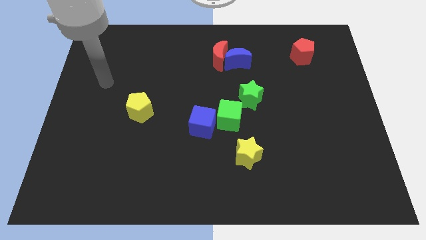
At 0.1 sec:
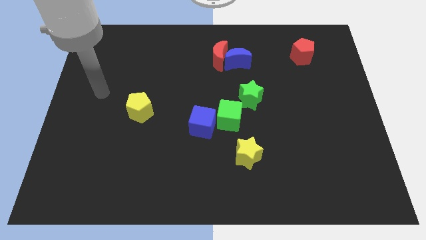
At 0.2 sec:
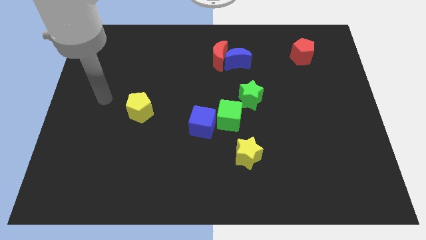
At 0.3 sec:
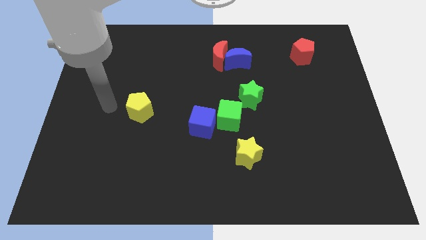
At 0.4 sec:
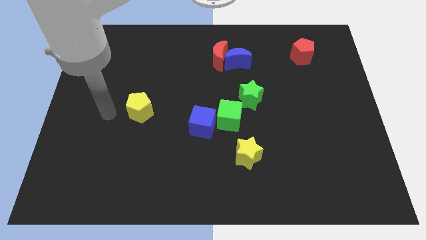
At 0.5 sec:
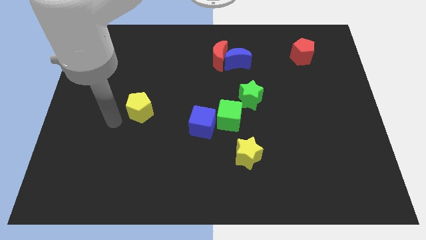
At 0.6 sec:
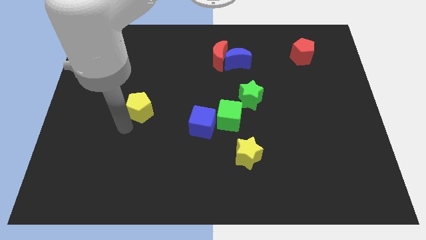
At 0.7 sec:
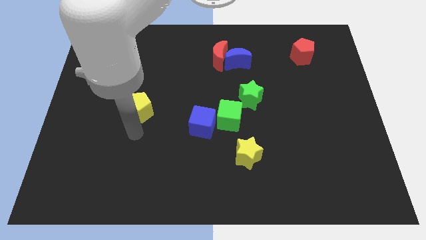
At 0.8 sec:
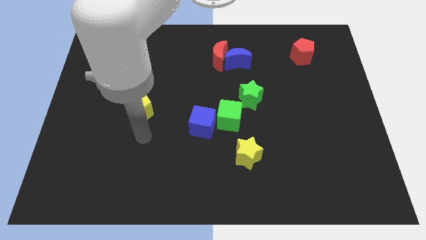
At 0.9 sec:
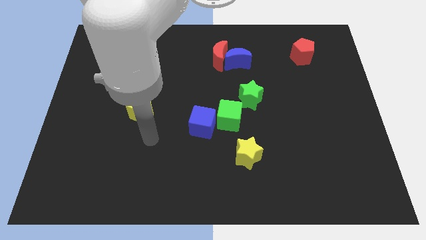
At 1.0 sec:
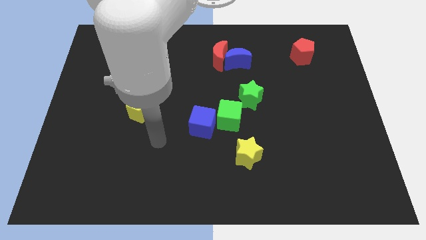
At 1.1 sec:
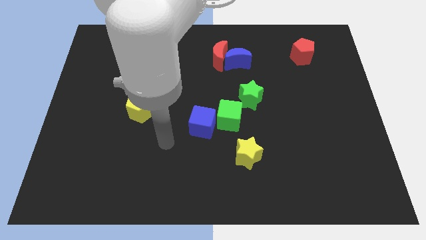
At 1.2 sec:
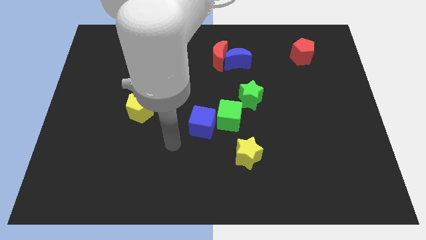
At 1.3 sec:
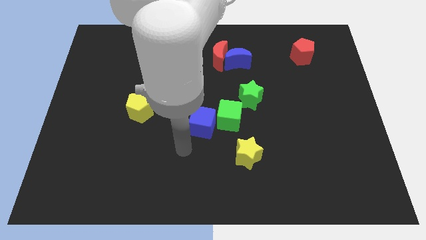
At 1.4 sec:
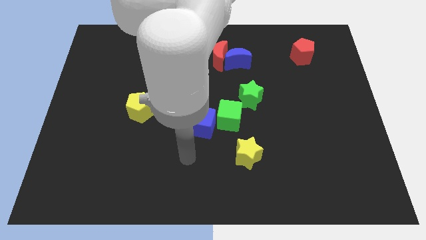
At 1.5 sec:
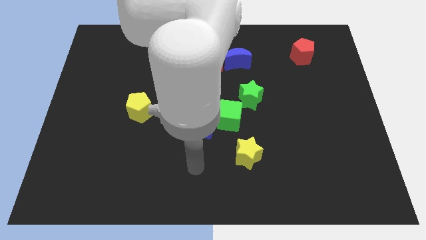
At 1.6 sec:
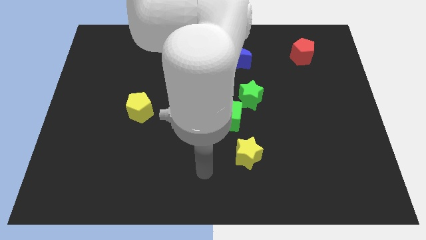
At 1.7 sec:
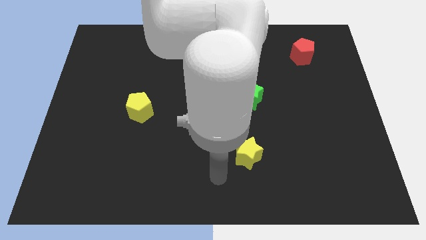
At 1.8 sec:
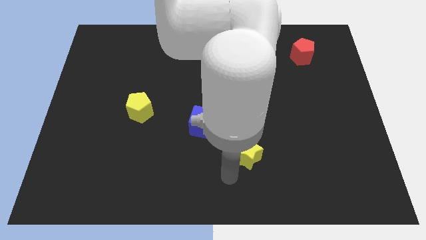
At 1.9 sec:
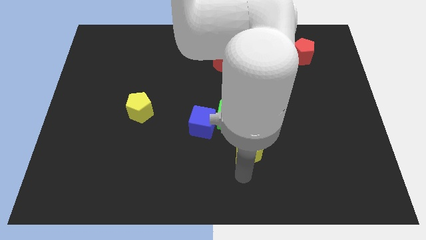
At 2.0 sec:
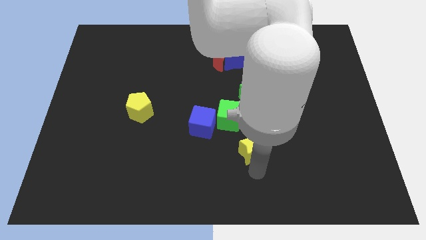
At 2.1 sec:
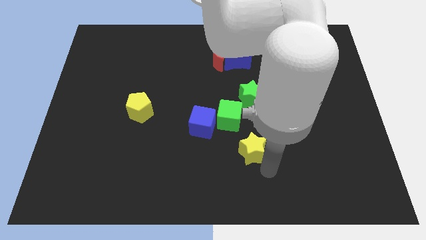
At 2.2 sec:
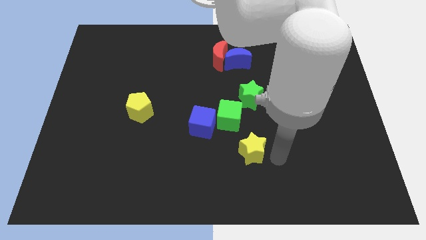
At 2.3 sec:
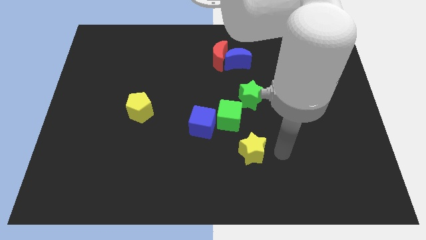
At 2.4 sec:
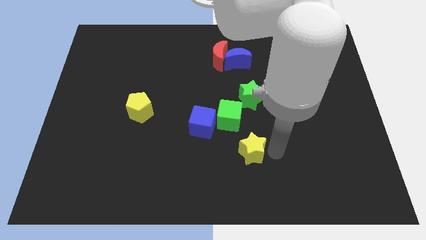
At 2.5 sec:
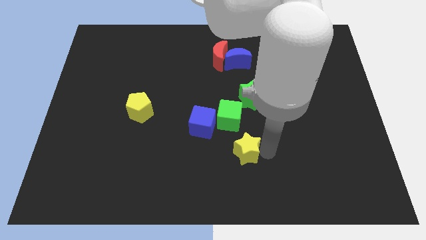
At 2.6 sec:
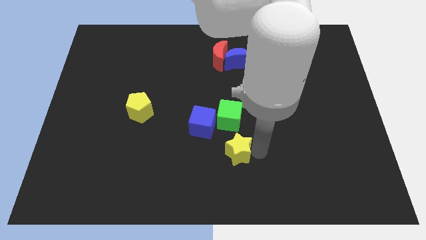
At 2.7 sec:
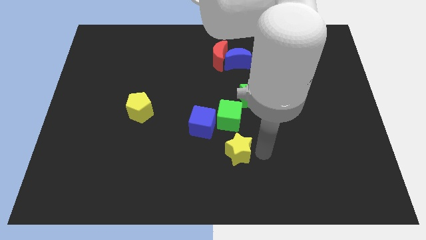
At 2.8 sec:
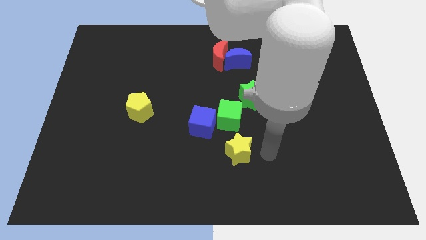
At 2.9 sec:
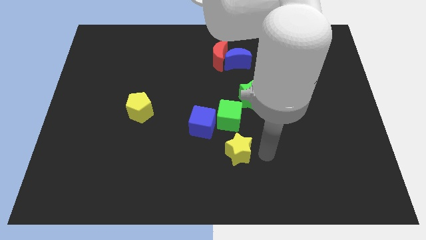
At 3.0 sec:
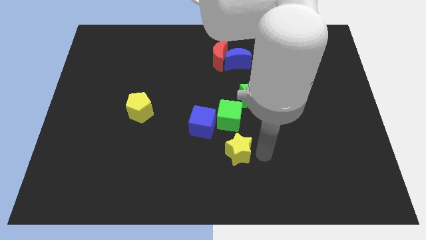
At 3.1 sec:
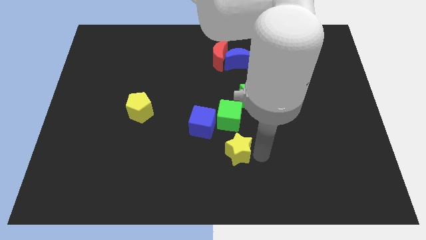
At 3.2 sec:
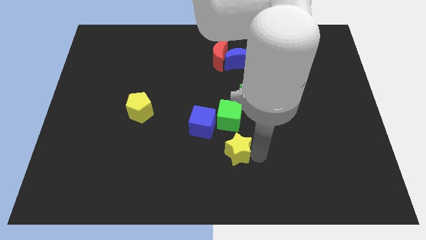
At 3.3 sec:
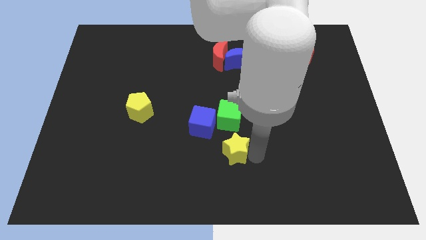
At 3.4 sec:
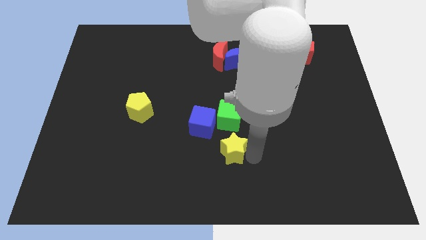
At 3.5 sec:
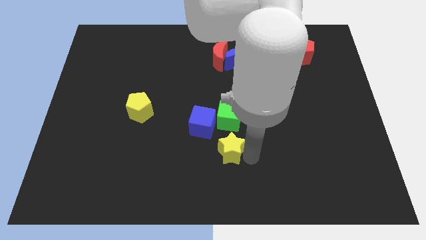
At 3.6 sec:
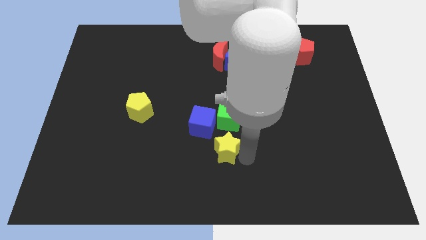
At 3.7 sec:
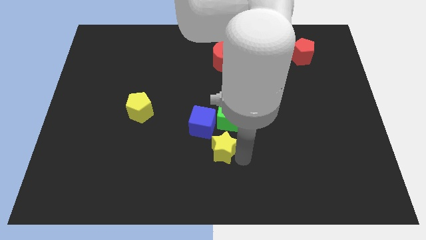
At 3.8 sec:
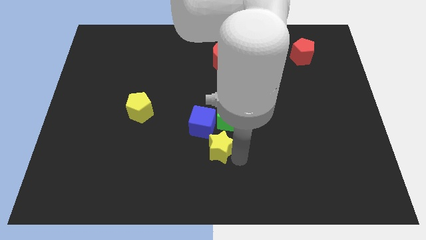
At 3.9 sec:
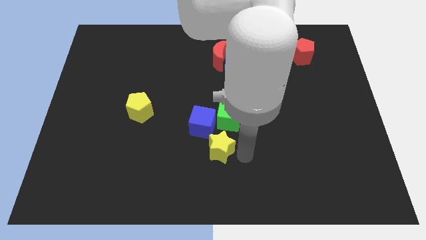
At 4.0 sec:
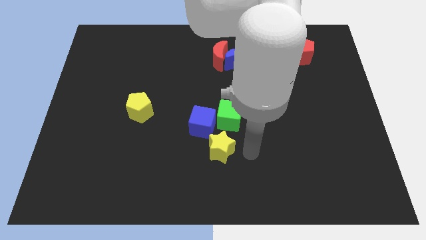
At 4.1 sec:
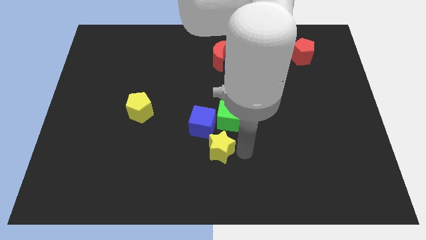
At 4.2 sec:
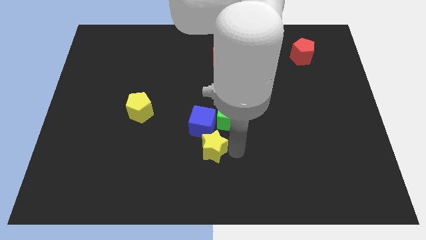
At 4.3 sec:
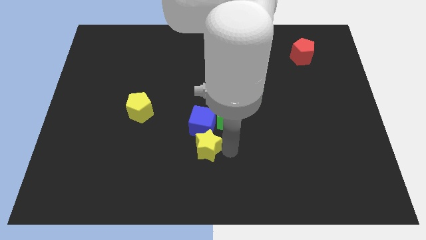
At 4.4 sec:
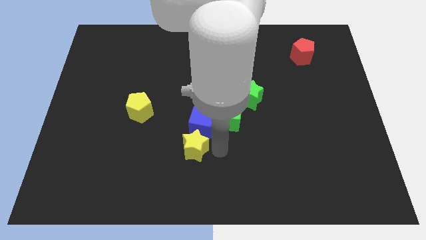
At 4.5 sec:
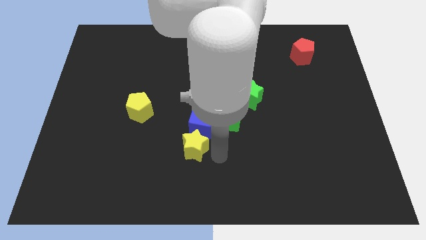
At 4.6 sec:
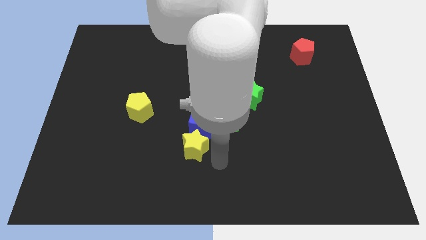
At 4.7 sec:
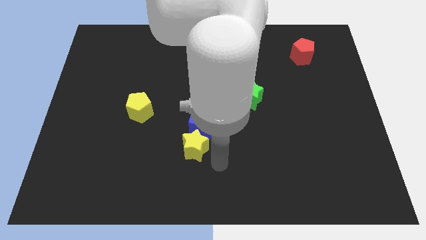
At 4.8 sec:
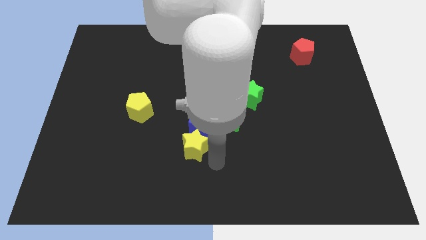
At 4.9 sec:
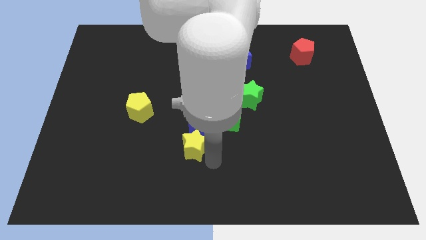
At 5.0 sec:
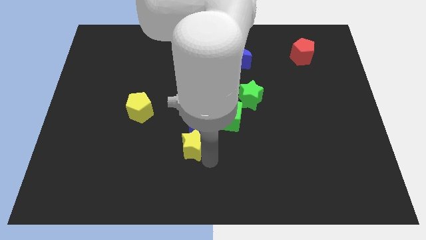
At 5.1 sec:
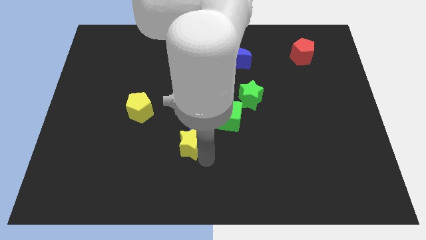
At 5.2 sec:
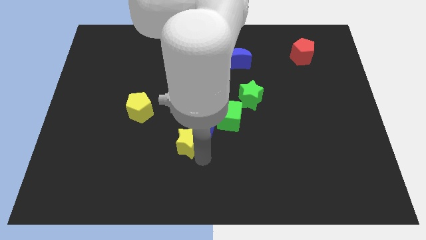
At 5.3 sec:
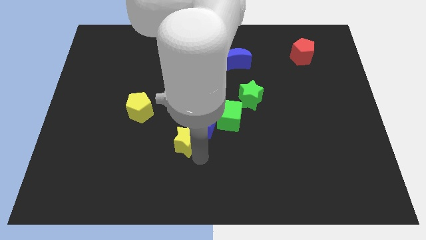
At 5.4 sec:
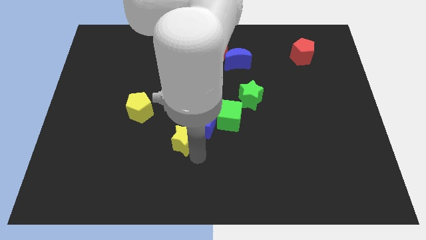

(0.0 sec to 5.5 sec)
move the yellow star to the left of the blue cube

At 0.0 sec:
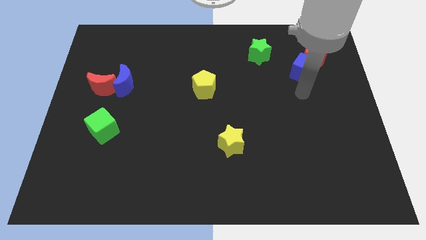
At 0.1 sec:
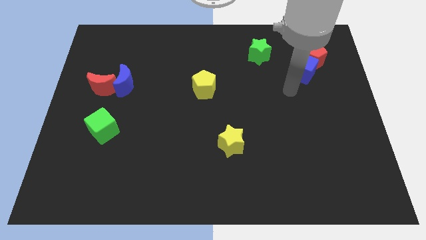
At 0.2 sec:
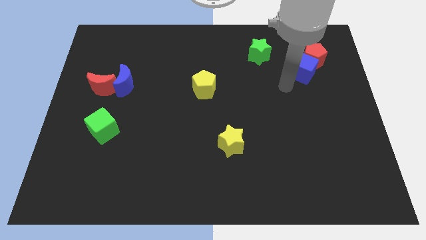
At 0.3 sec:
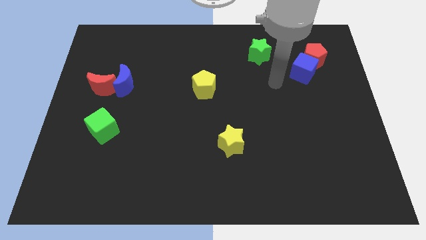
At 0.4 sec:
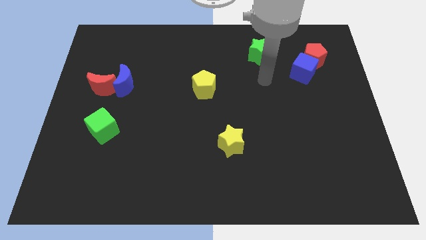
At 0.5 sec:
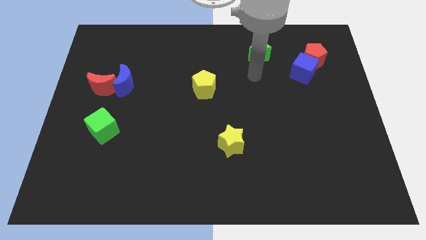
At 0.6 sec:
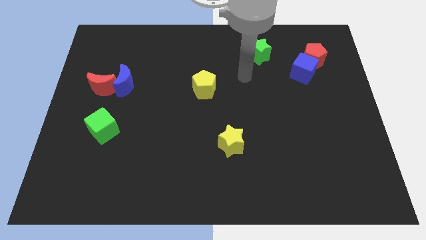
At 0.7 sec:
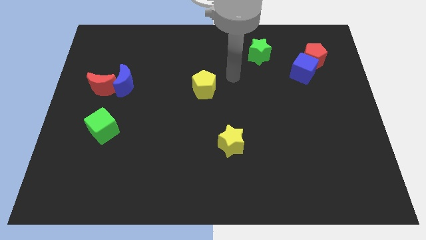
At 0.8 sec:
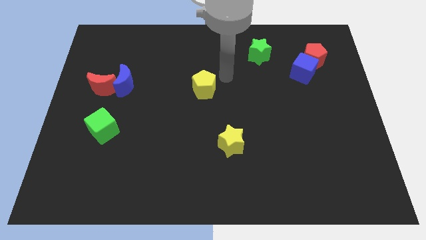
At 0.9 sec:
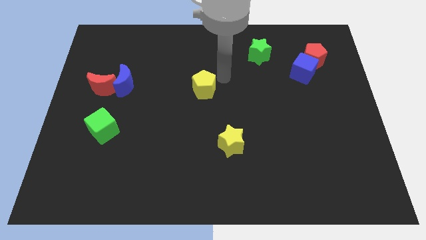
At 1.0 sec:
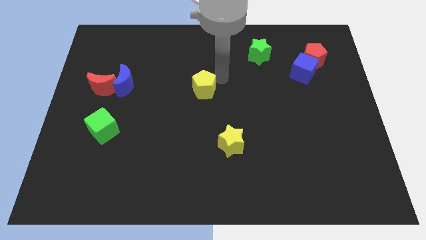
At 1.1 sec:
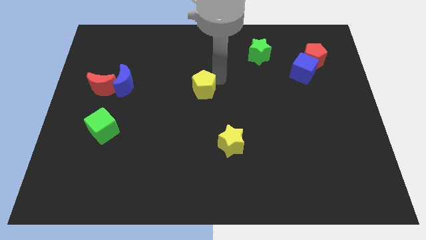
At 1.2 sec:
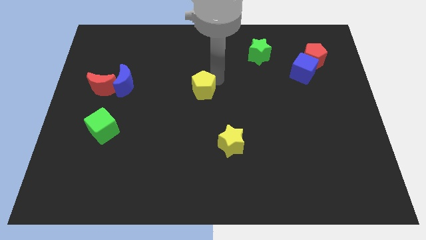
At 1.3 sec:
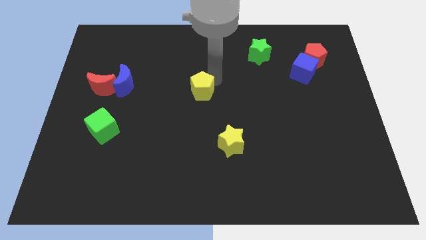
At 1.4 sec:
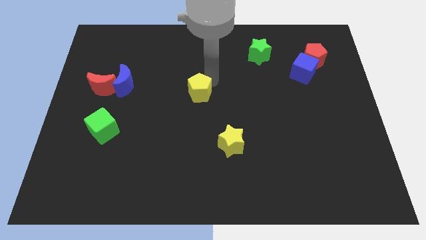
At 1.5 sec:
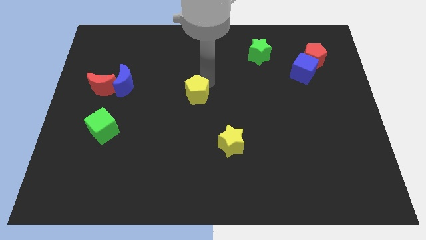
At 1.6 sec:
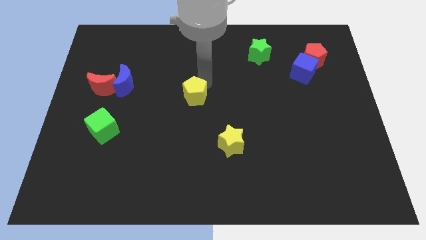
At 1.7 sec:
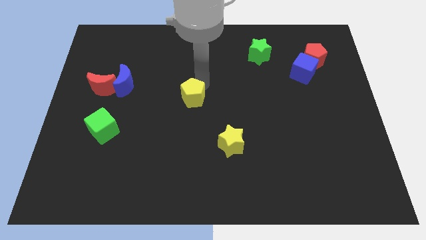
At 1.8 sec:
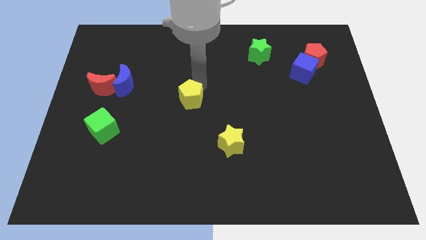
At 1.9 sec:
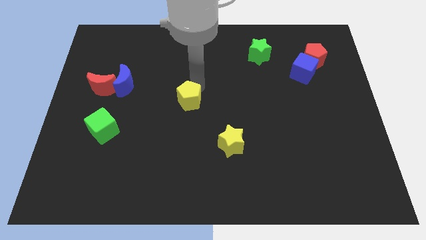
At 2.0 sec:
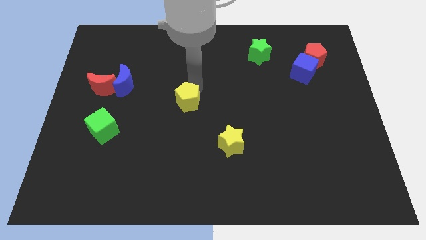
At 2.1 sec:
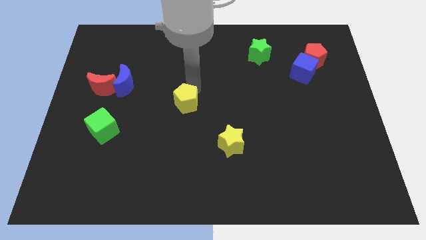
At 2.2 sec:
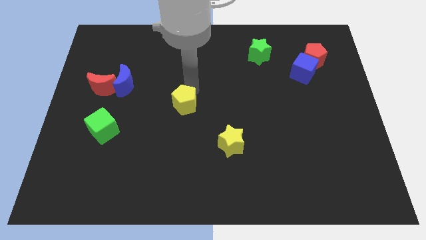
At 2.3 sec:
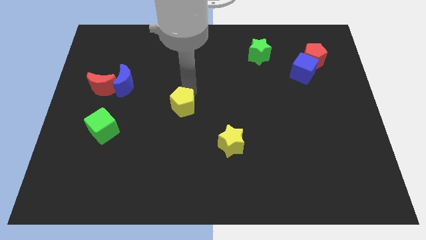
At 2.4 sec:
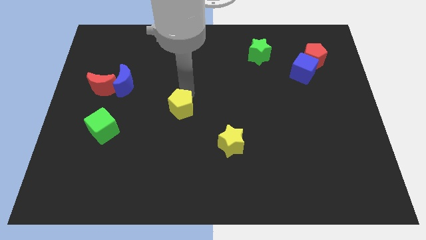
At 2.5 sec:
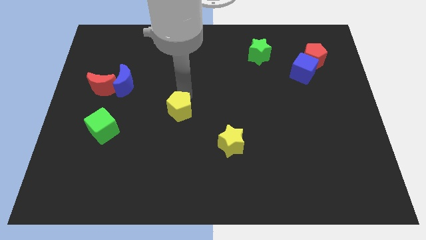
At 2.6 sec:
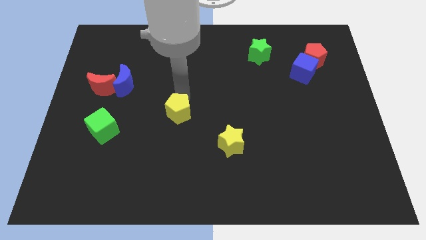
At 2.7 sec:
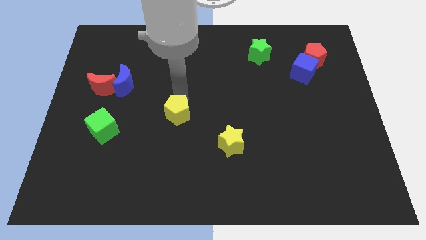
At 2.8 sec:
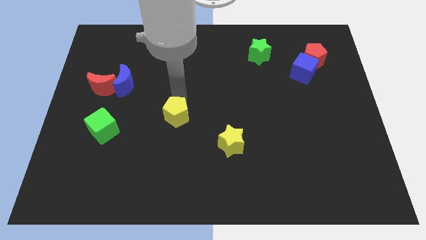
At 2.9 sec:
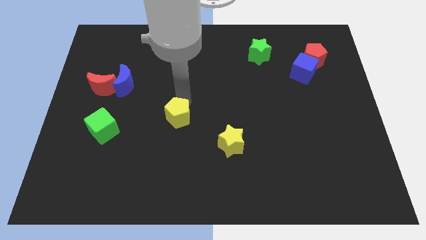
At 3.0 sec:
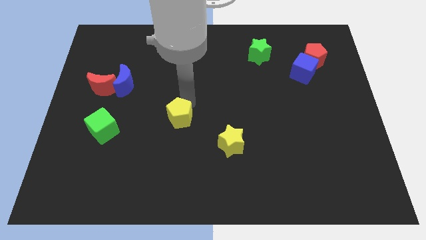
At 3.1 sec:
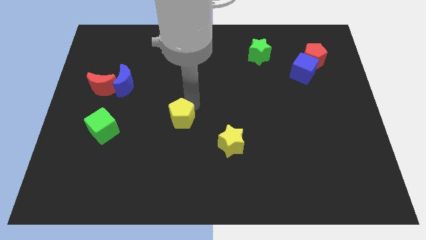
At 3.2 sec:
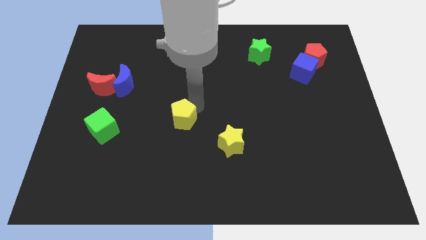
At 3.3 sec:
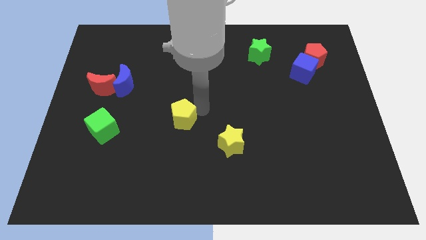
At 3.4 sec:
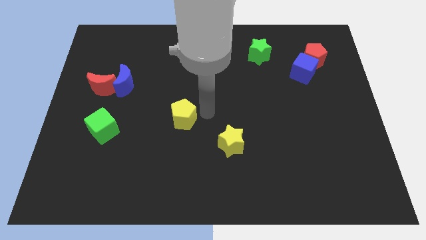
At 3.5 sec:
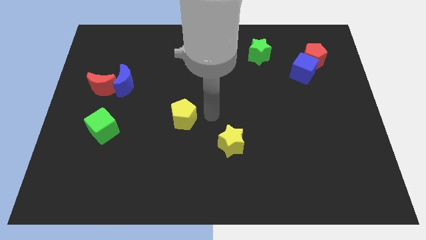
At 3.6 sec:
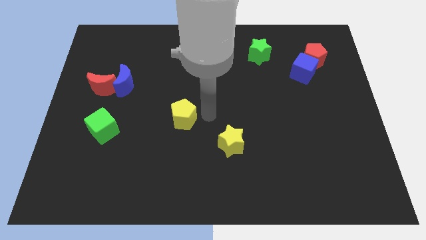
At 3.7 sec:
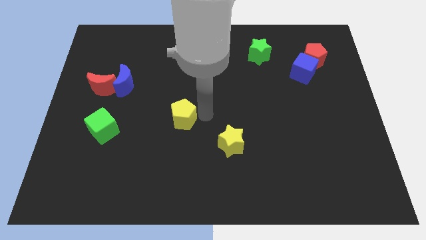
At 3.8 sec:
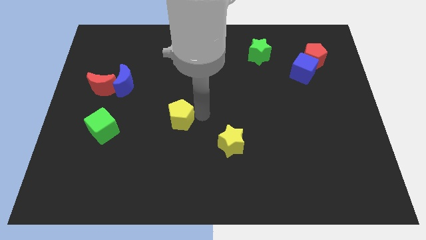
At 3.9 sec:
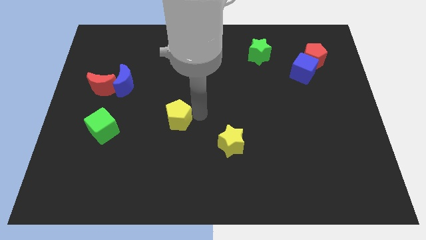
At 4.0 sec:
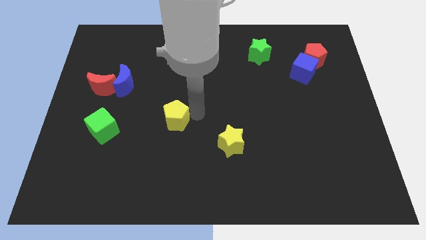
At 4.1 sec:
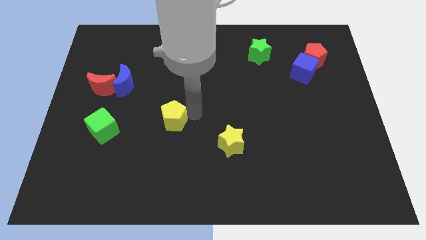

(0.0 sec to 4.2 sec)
slide the yellow pentagon right of the green cube
